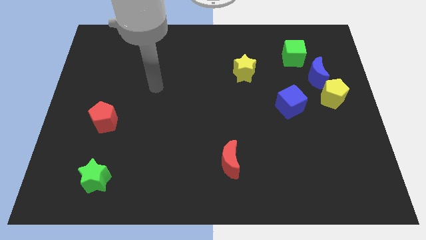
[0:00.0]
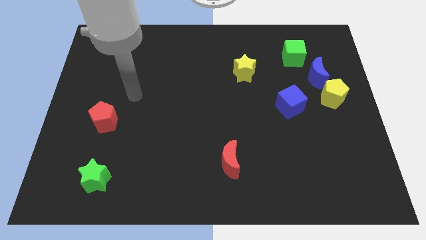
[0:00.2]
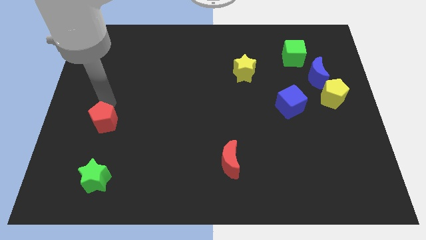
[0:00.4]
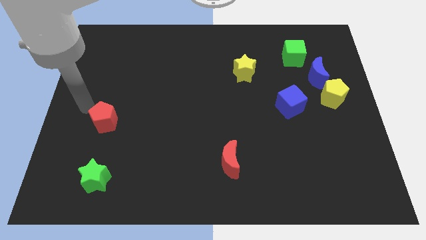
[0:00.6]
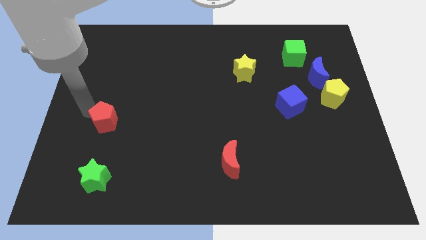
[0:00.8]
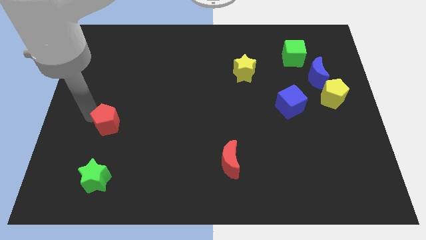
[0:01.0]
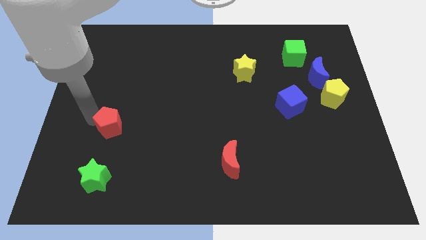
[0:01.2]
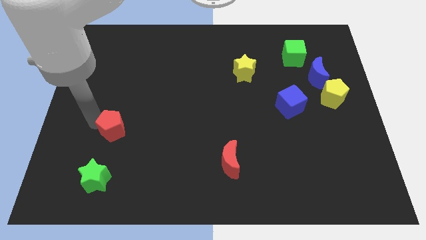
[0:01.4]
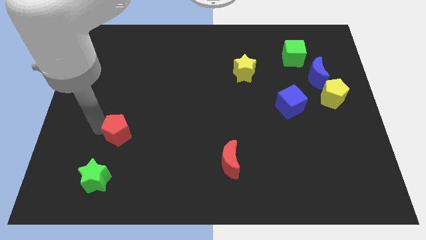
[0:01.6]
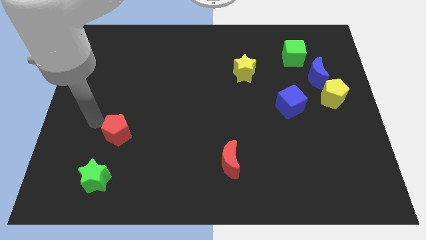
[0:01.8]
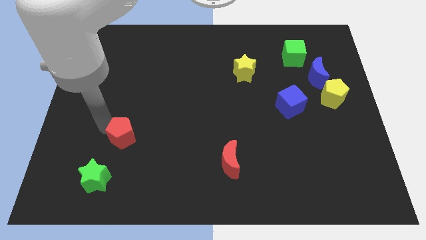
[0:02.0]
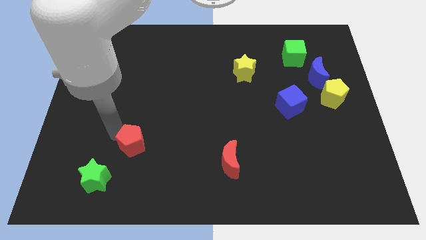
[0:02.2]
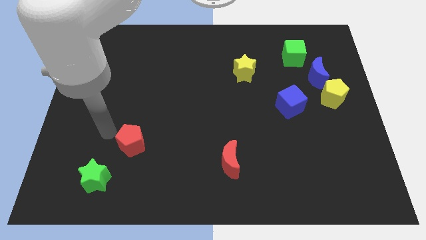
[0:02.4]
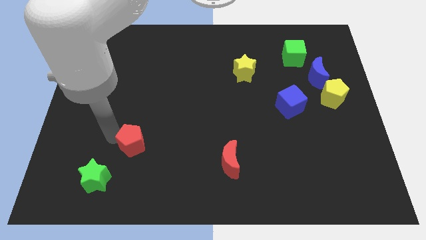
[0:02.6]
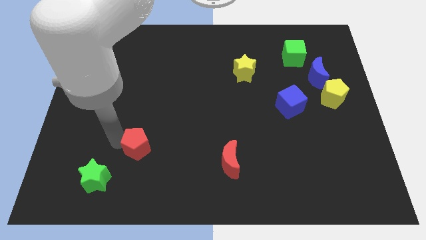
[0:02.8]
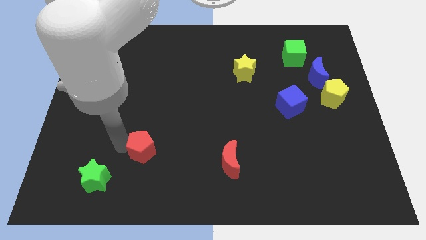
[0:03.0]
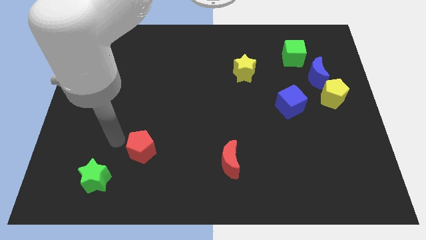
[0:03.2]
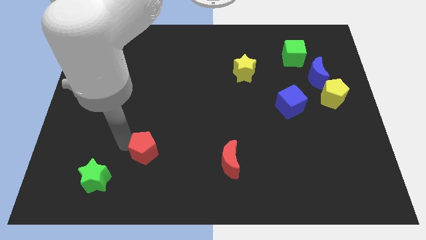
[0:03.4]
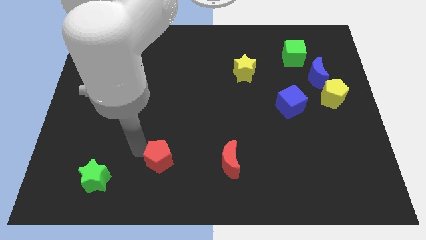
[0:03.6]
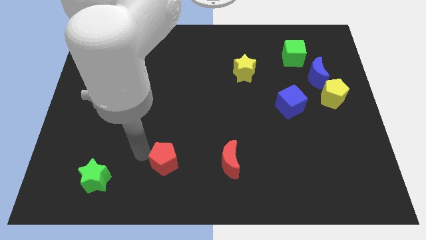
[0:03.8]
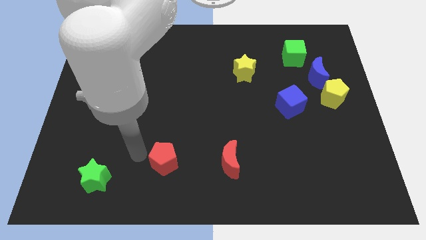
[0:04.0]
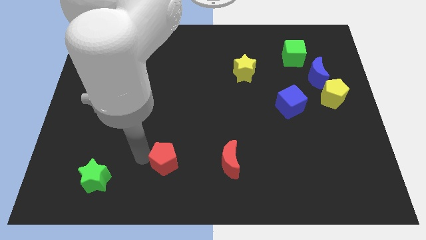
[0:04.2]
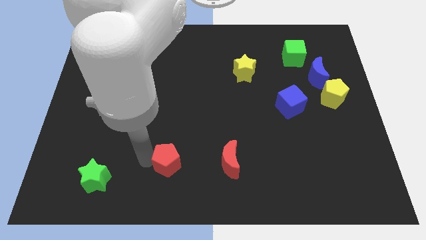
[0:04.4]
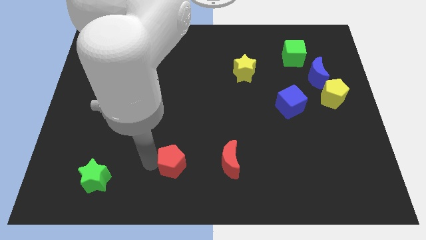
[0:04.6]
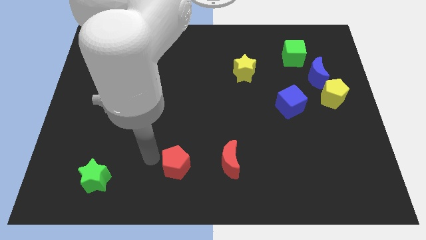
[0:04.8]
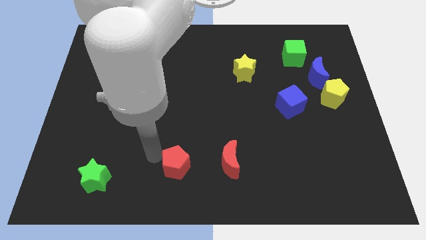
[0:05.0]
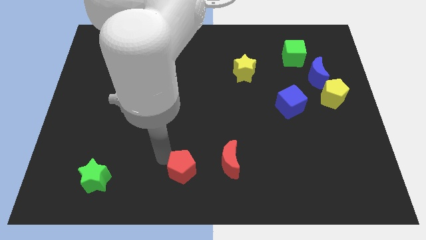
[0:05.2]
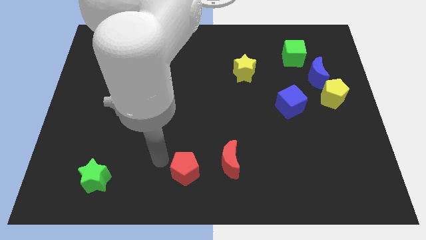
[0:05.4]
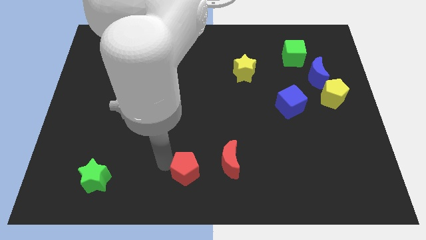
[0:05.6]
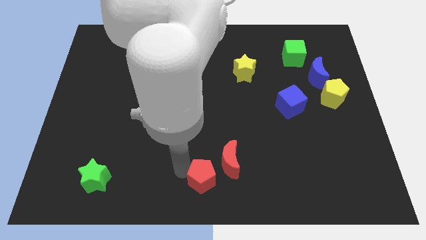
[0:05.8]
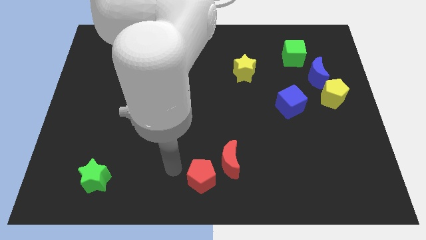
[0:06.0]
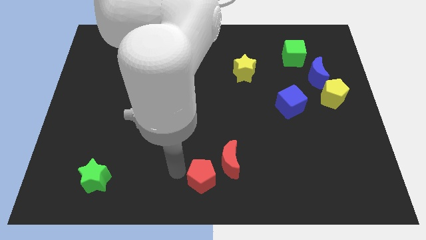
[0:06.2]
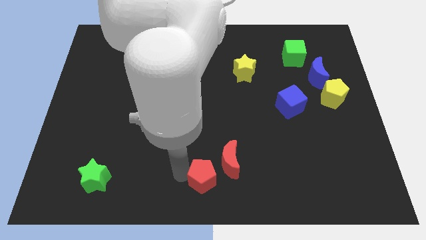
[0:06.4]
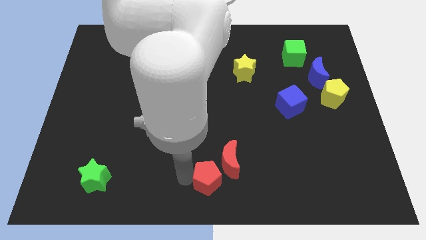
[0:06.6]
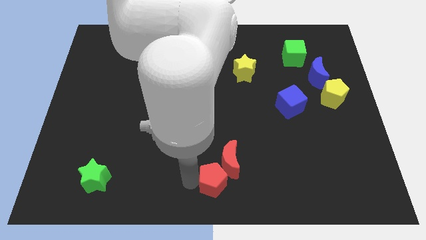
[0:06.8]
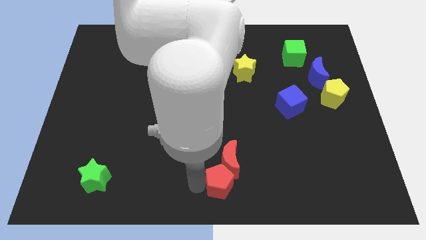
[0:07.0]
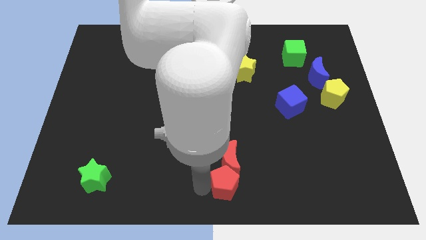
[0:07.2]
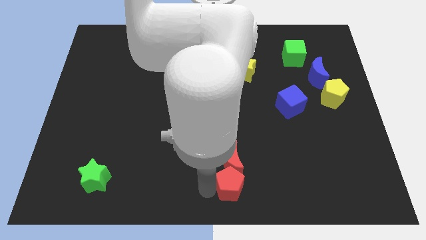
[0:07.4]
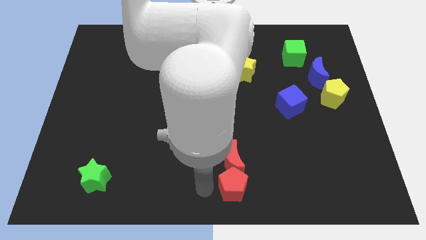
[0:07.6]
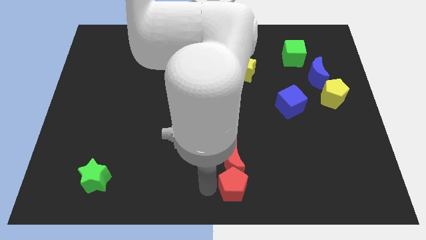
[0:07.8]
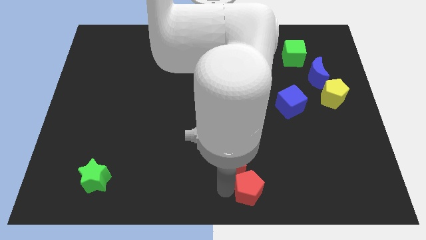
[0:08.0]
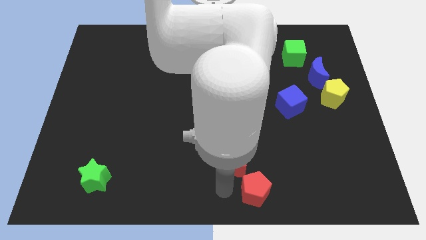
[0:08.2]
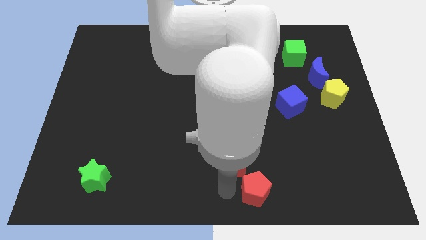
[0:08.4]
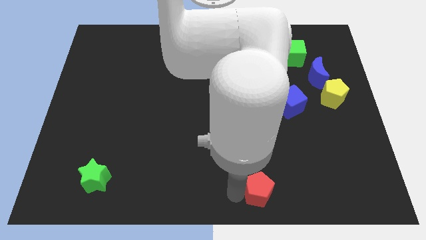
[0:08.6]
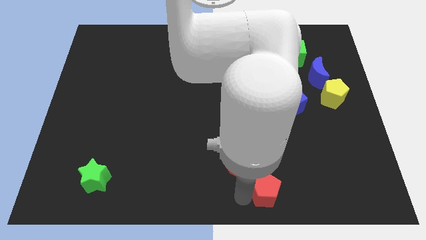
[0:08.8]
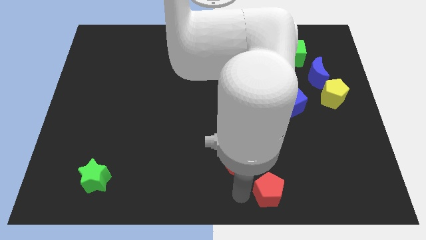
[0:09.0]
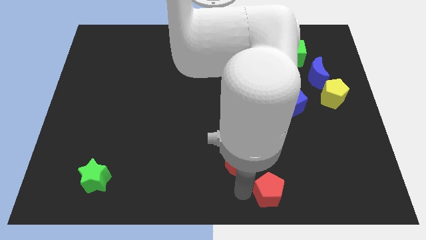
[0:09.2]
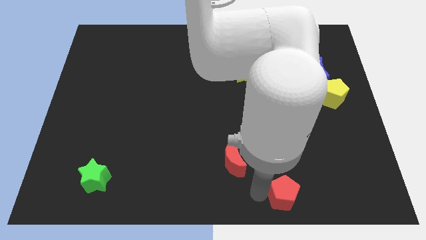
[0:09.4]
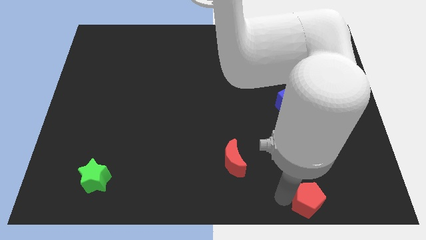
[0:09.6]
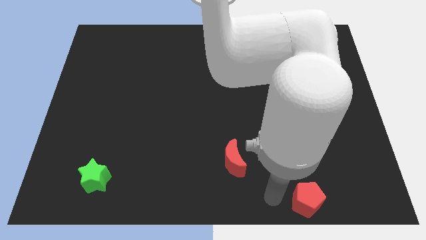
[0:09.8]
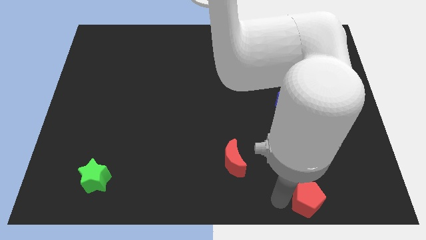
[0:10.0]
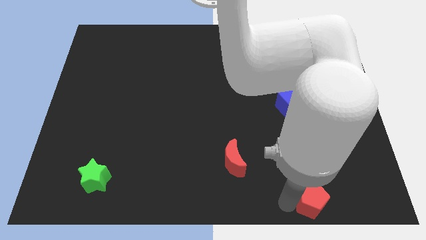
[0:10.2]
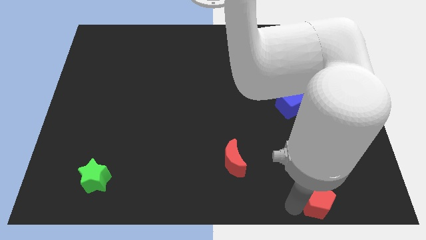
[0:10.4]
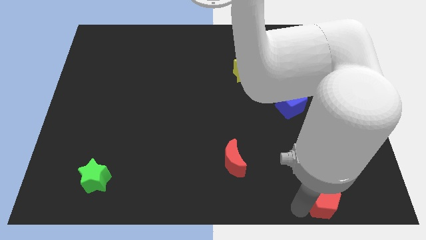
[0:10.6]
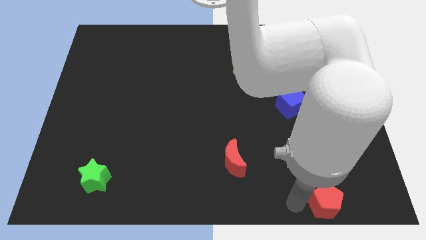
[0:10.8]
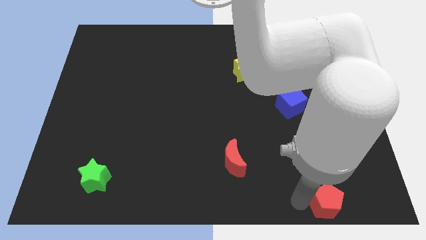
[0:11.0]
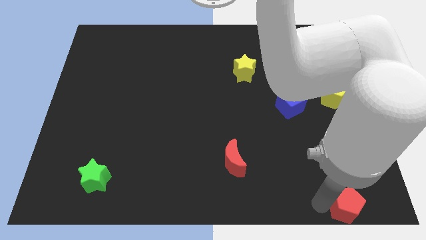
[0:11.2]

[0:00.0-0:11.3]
put the red pentagon to the lower right corner

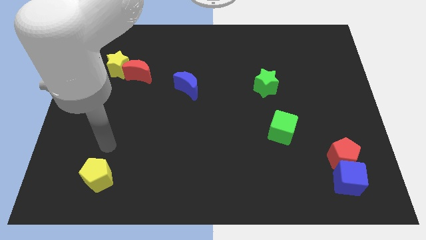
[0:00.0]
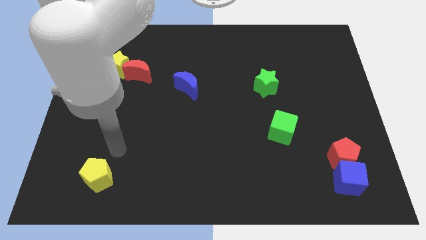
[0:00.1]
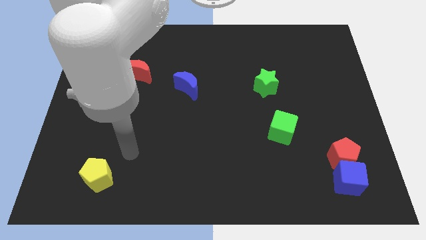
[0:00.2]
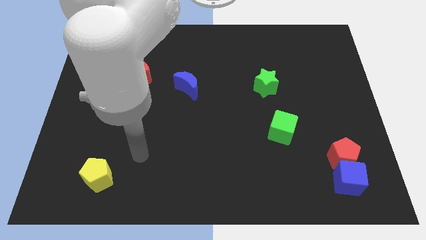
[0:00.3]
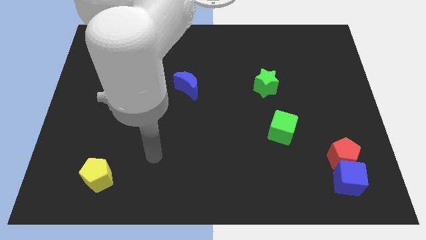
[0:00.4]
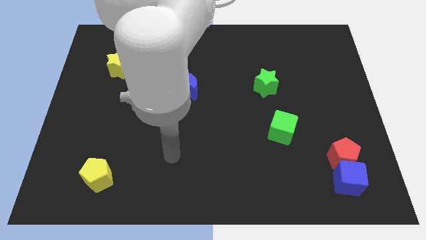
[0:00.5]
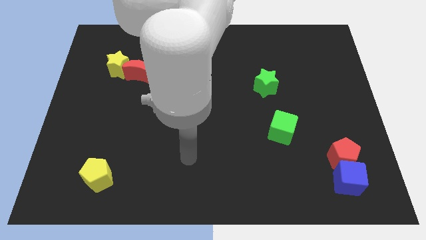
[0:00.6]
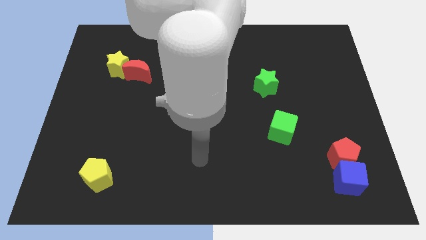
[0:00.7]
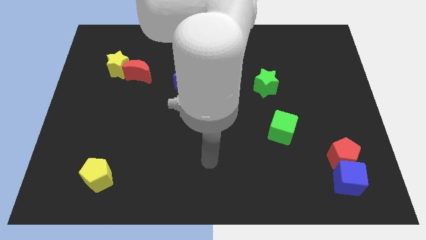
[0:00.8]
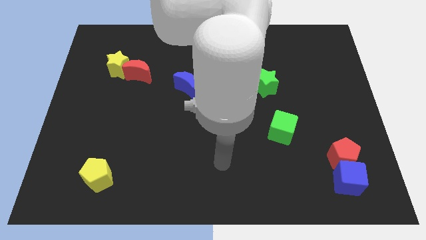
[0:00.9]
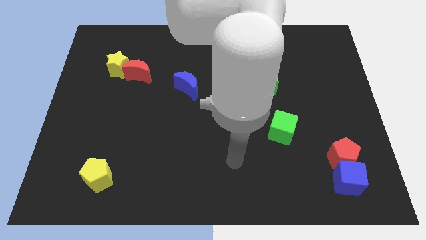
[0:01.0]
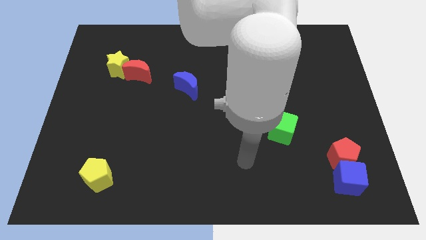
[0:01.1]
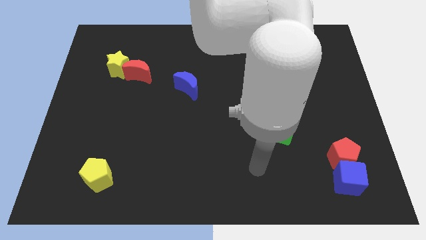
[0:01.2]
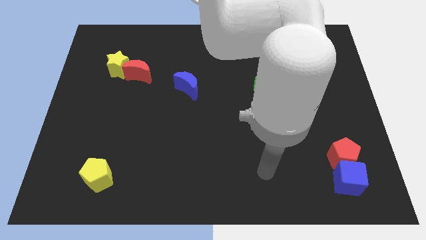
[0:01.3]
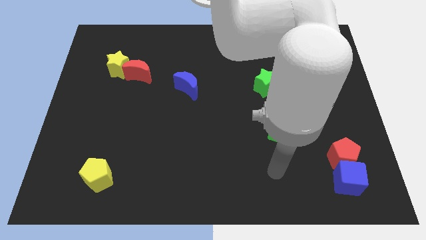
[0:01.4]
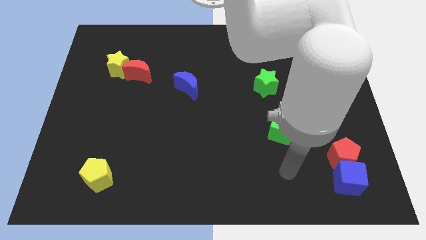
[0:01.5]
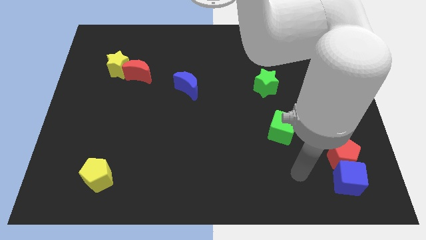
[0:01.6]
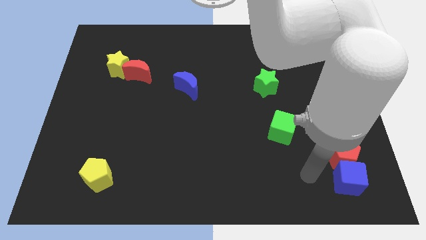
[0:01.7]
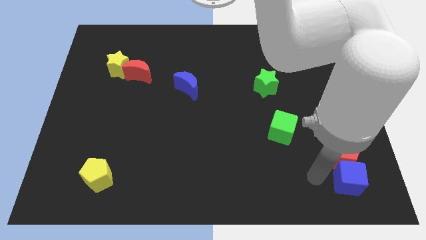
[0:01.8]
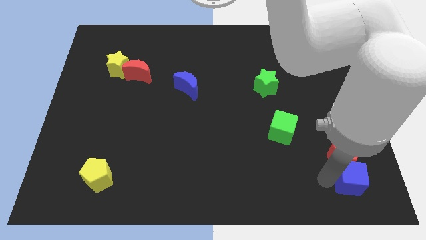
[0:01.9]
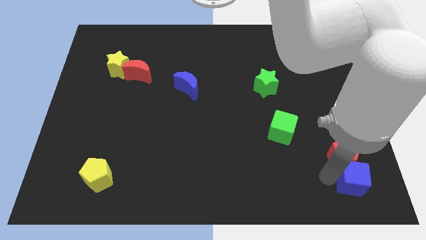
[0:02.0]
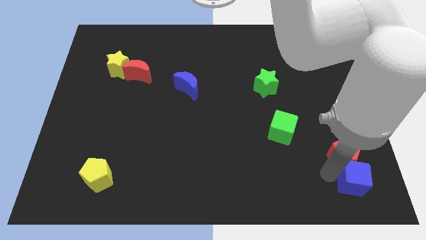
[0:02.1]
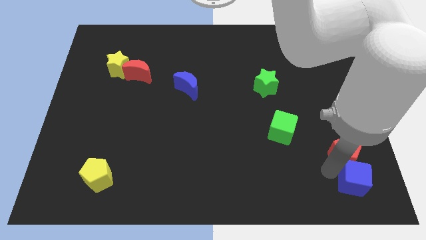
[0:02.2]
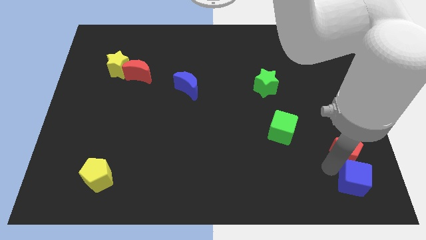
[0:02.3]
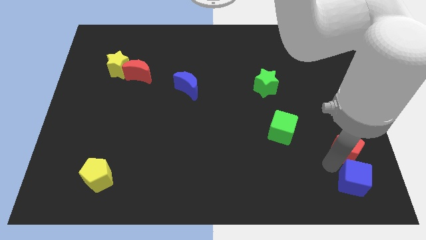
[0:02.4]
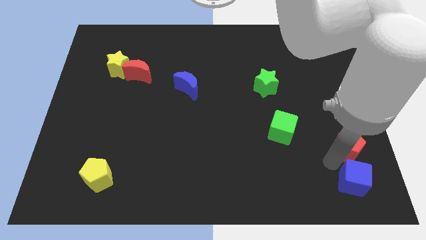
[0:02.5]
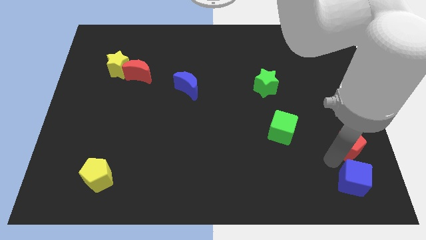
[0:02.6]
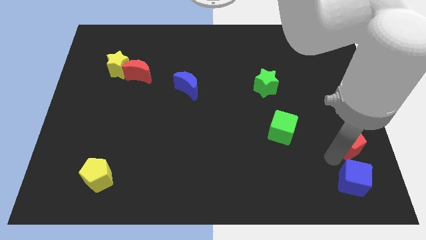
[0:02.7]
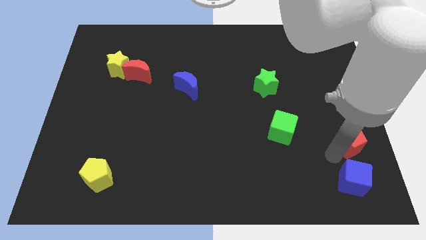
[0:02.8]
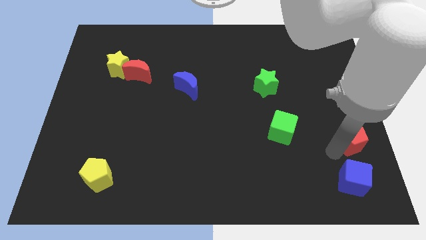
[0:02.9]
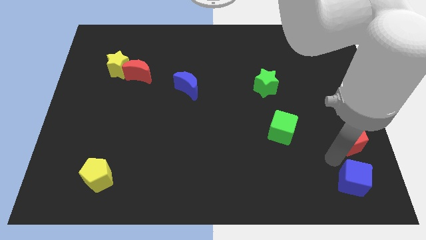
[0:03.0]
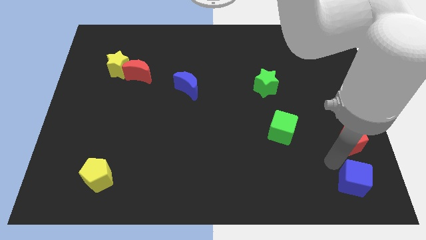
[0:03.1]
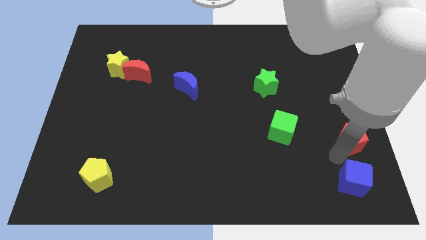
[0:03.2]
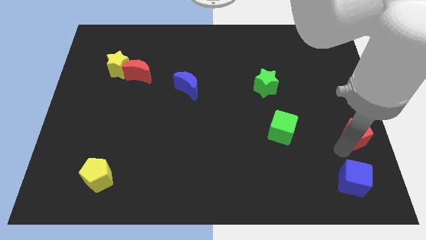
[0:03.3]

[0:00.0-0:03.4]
move the red pentagon to the center right
